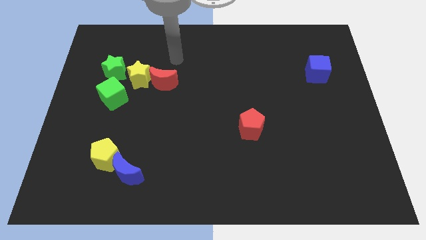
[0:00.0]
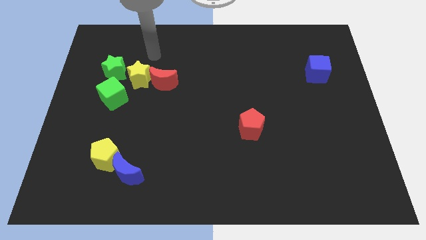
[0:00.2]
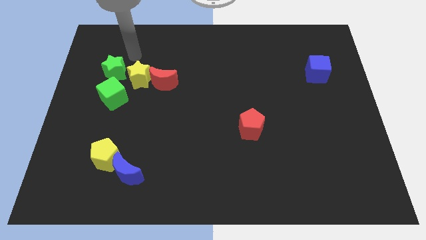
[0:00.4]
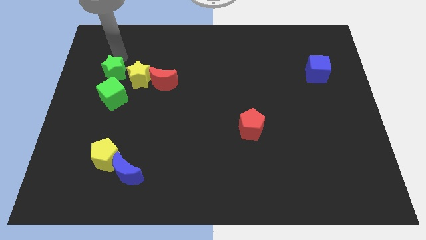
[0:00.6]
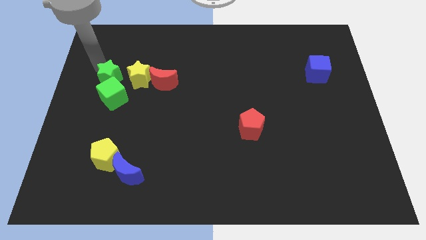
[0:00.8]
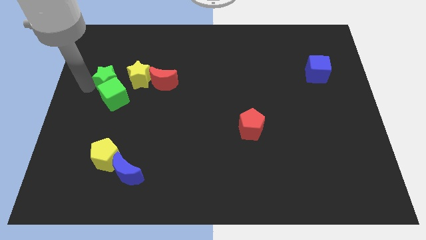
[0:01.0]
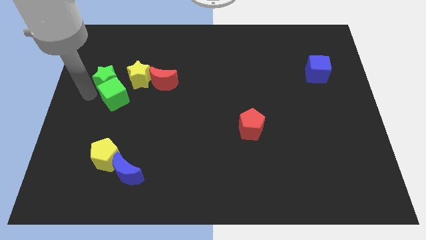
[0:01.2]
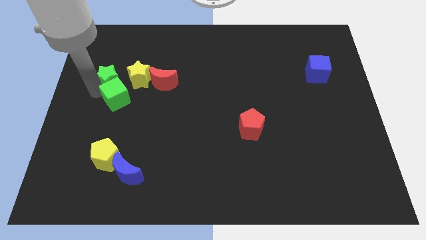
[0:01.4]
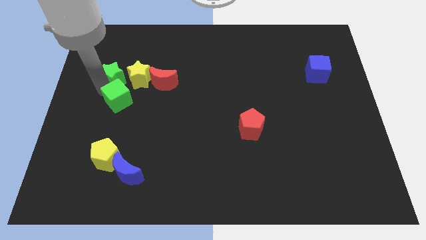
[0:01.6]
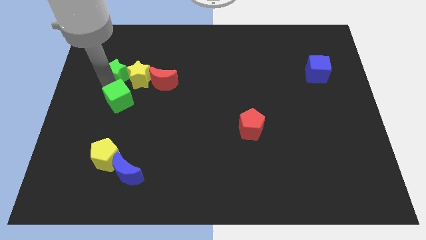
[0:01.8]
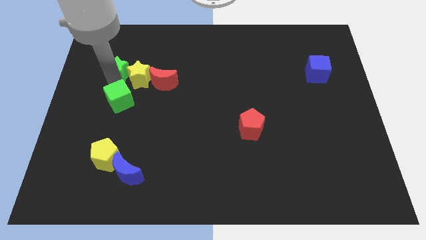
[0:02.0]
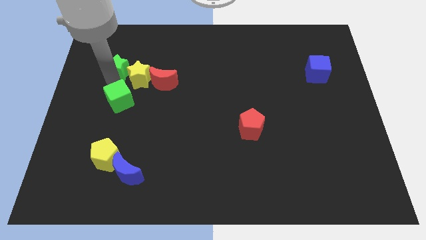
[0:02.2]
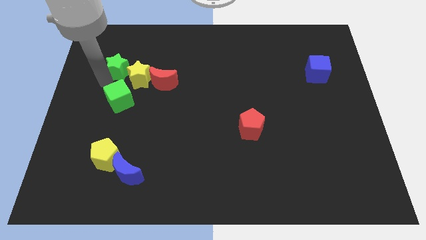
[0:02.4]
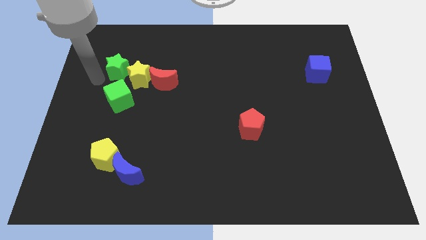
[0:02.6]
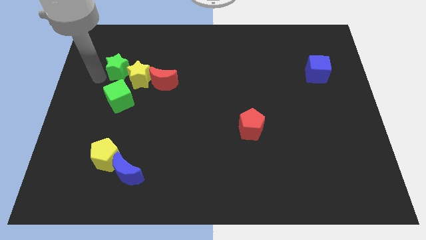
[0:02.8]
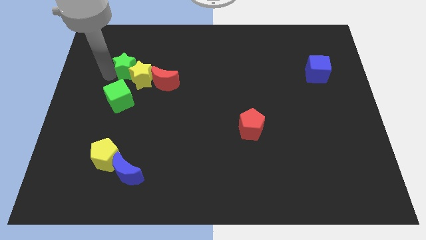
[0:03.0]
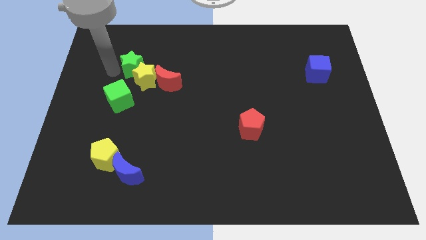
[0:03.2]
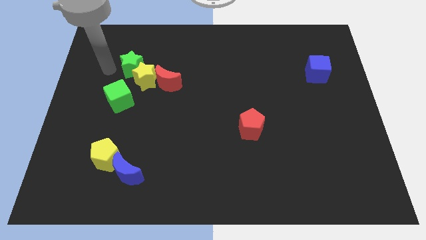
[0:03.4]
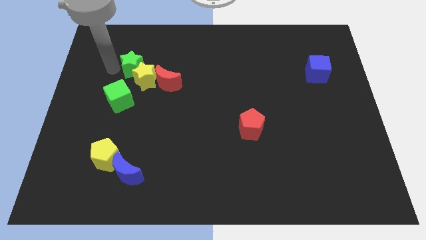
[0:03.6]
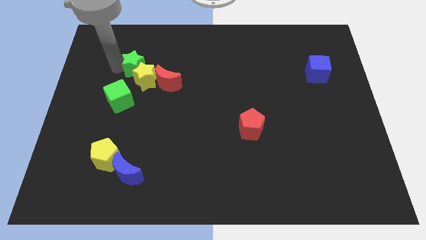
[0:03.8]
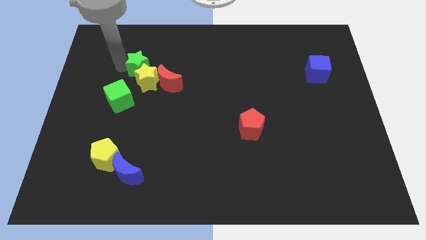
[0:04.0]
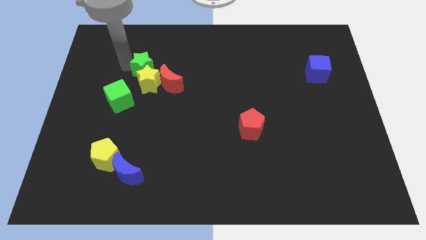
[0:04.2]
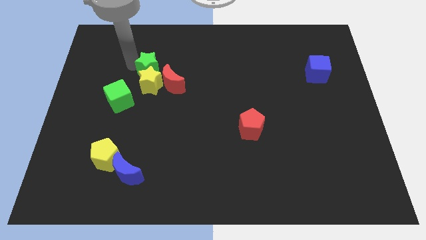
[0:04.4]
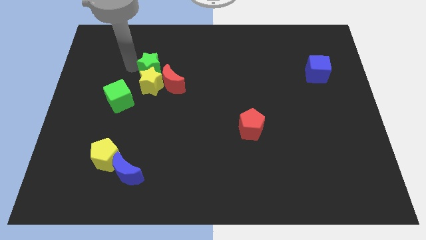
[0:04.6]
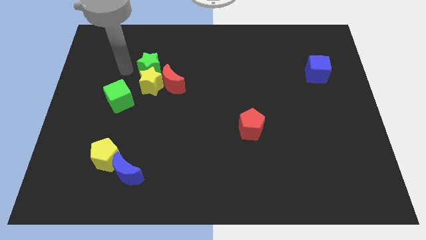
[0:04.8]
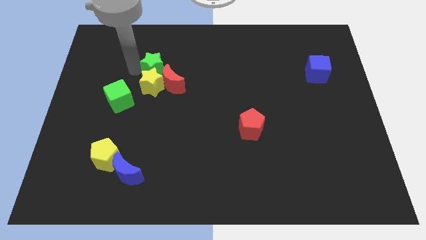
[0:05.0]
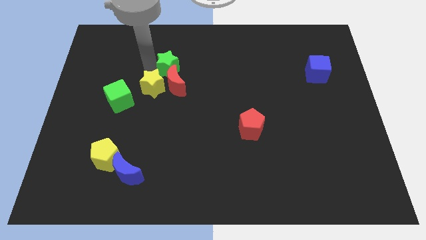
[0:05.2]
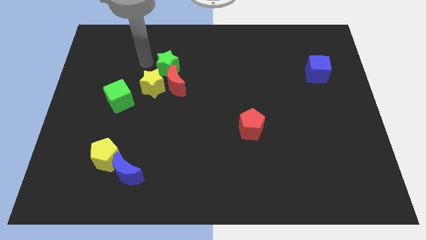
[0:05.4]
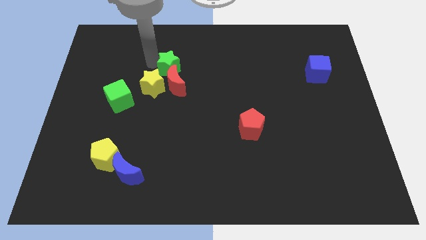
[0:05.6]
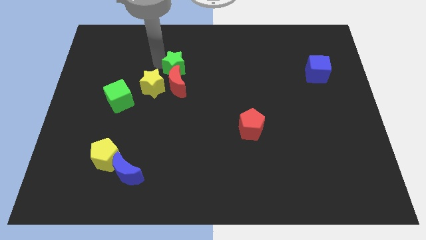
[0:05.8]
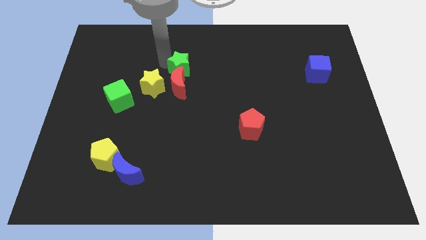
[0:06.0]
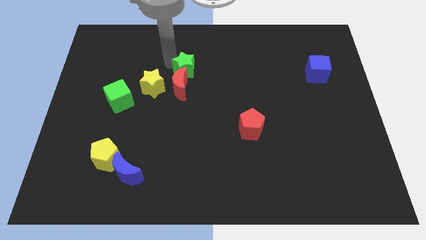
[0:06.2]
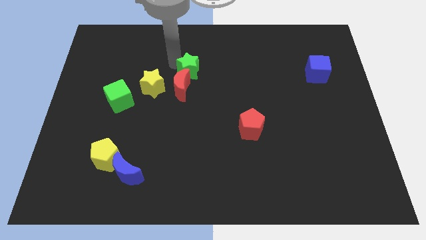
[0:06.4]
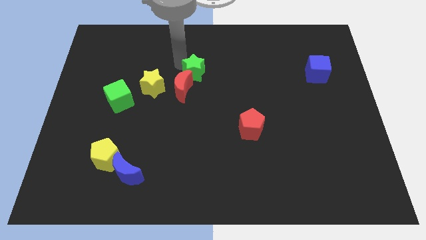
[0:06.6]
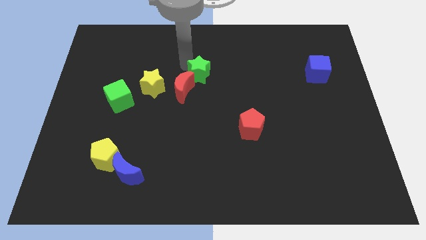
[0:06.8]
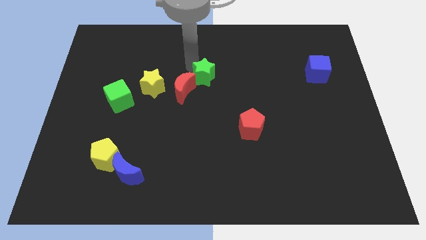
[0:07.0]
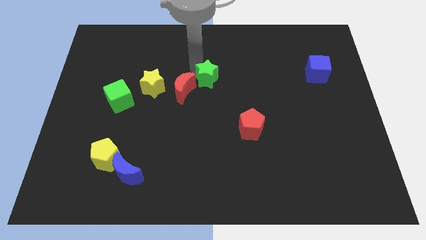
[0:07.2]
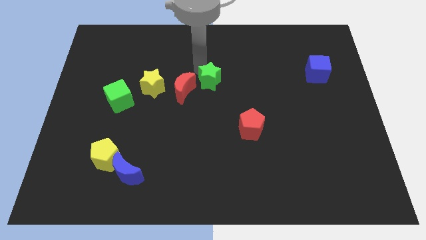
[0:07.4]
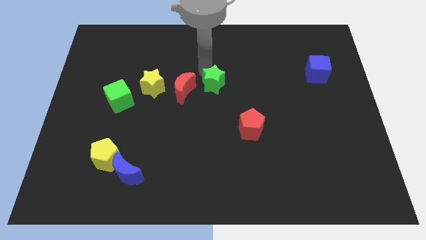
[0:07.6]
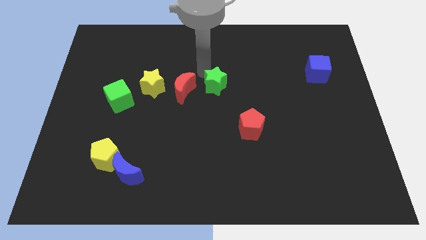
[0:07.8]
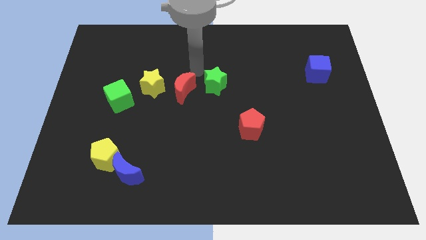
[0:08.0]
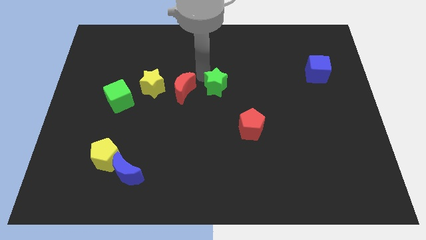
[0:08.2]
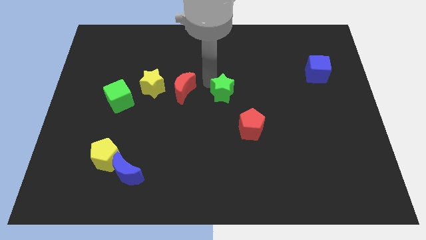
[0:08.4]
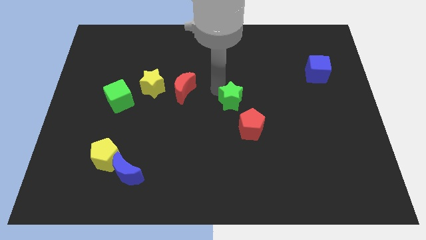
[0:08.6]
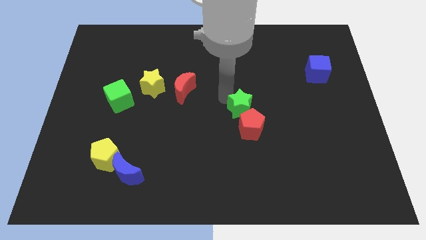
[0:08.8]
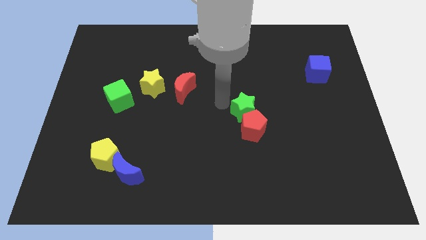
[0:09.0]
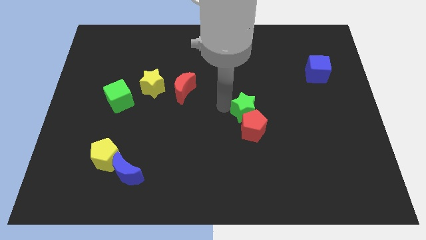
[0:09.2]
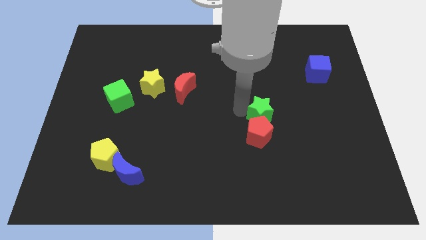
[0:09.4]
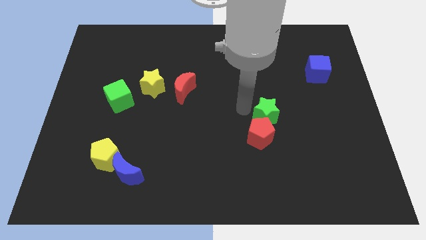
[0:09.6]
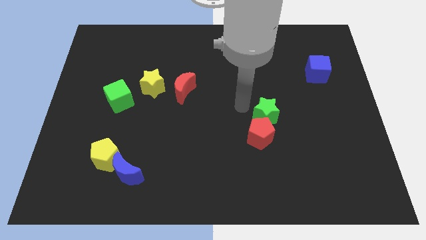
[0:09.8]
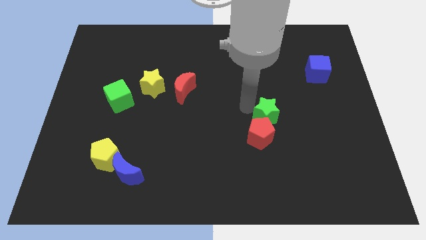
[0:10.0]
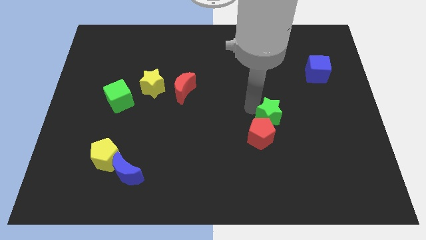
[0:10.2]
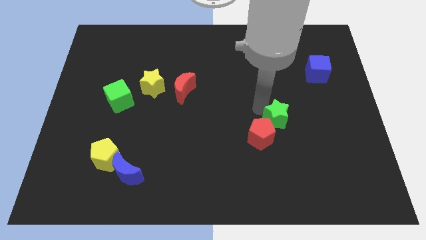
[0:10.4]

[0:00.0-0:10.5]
push the green star to the right of the red pentagon
